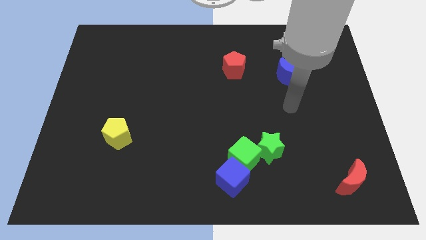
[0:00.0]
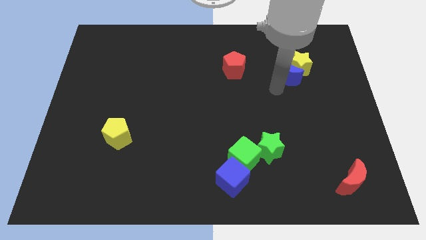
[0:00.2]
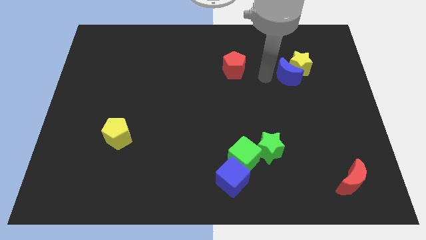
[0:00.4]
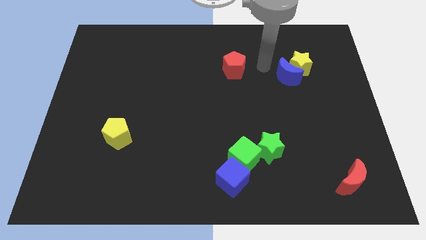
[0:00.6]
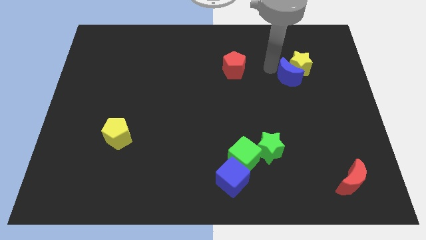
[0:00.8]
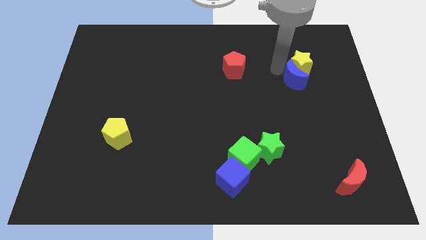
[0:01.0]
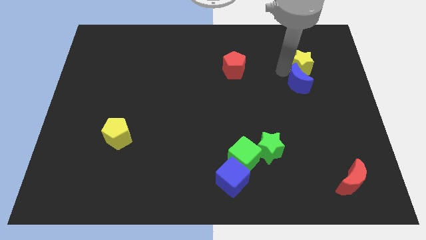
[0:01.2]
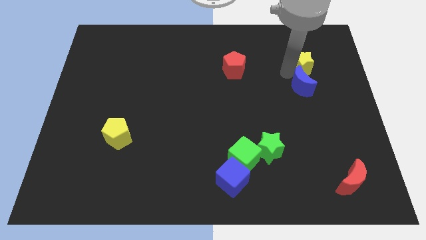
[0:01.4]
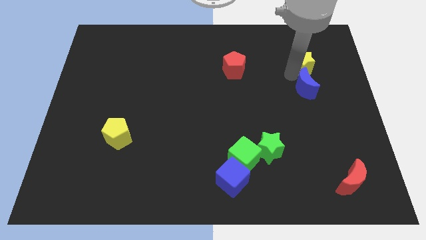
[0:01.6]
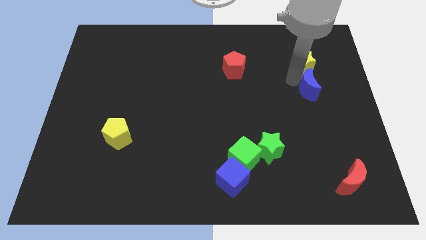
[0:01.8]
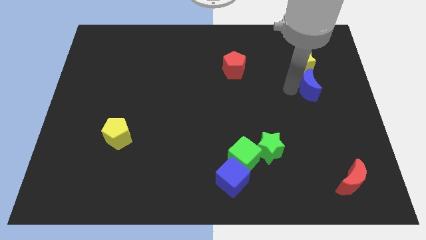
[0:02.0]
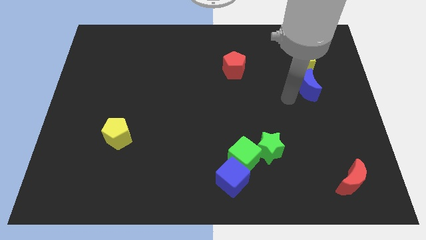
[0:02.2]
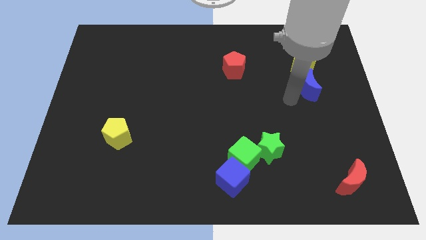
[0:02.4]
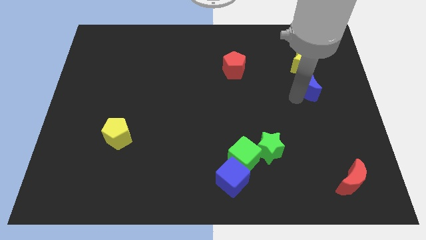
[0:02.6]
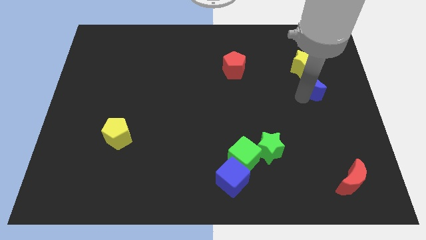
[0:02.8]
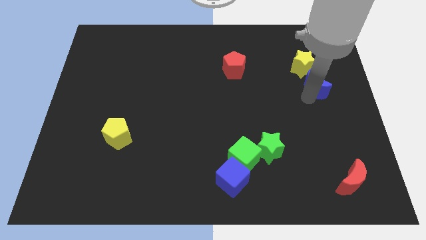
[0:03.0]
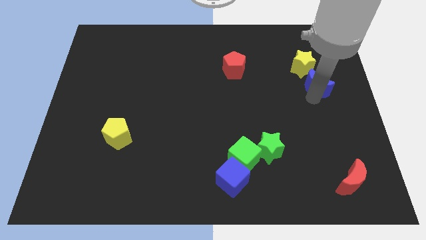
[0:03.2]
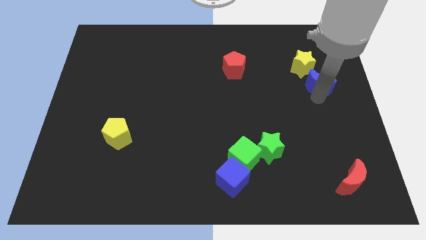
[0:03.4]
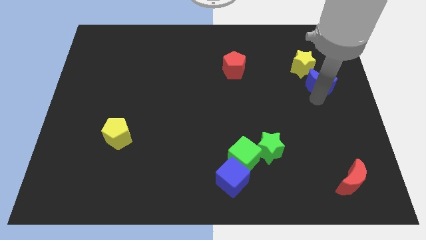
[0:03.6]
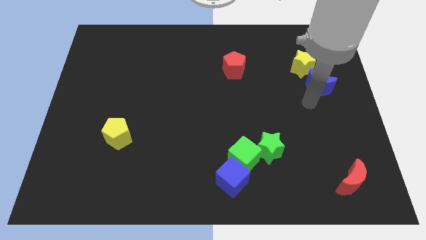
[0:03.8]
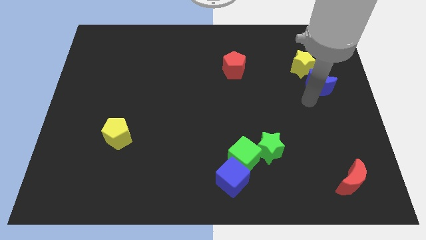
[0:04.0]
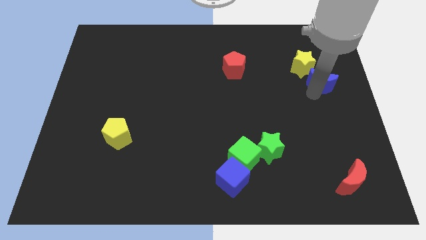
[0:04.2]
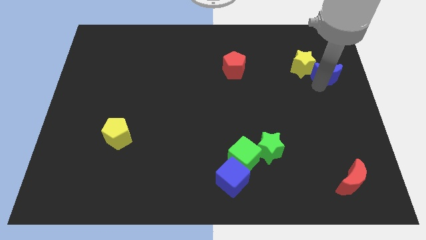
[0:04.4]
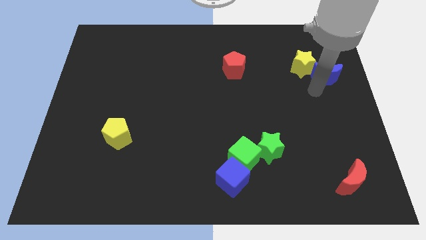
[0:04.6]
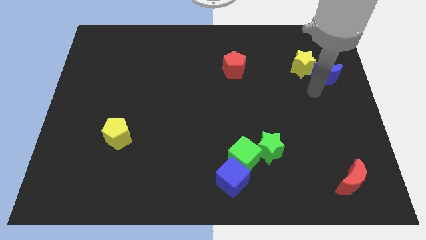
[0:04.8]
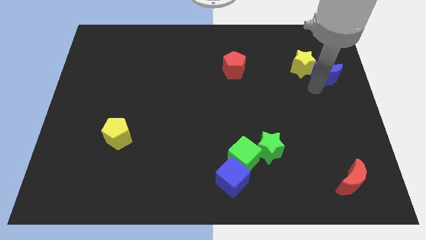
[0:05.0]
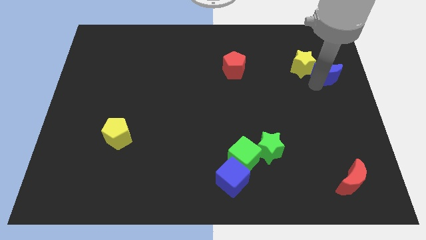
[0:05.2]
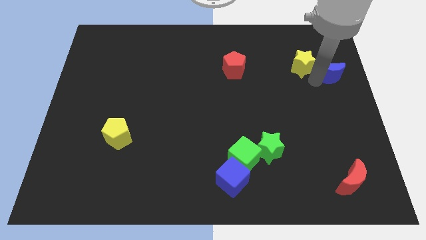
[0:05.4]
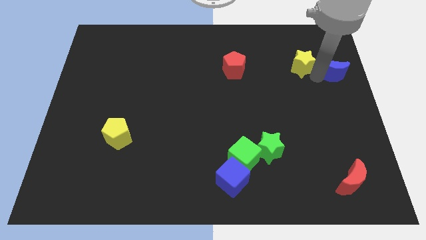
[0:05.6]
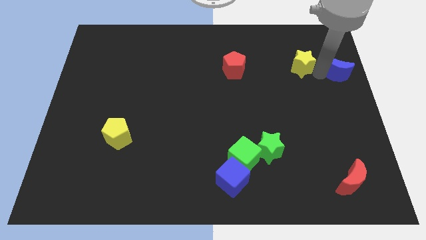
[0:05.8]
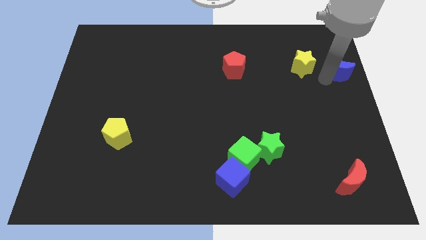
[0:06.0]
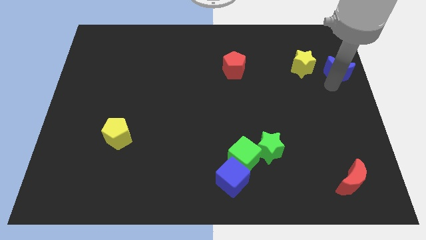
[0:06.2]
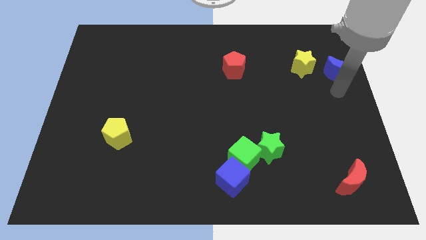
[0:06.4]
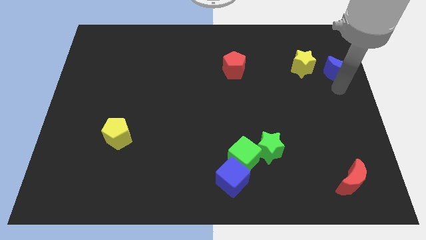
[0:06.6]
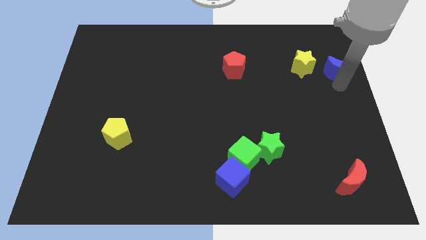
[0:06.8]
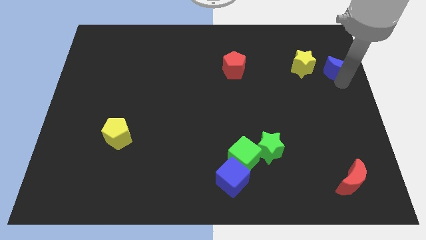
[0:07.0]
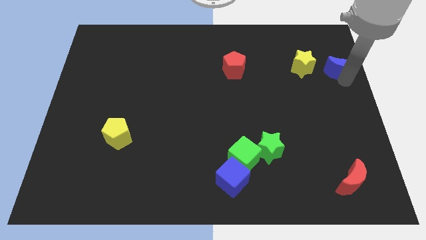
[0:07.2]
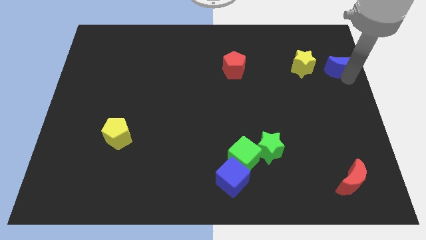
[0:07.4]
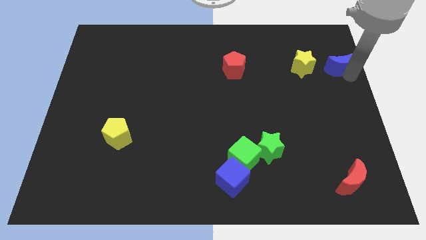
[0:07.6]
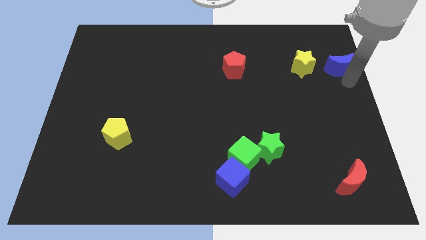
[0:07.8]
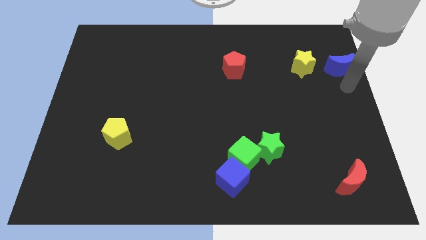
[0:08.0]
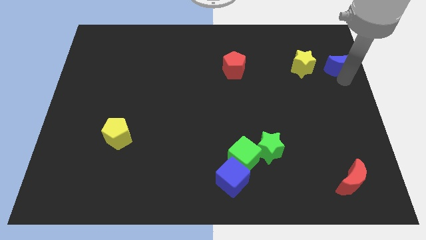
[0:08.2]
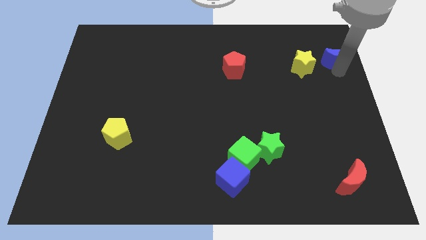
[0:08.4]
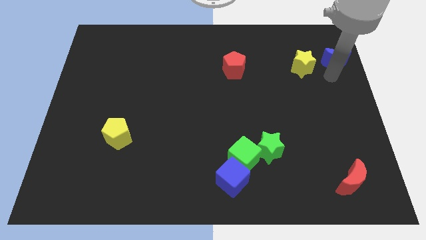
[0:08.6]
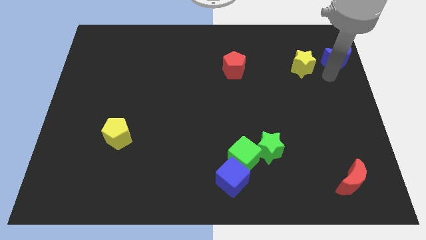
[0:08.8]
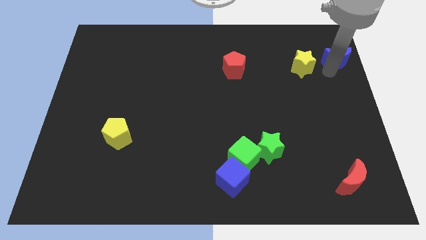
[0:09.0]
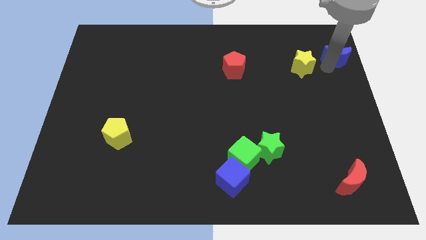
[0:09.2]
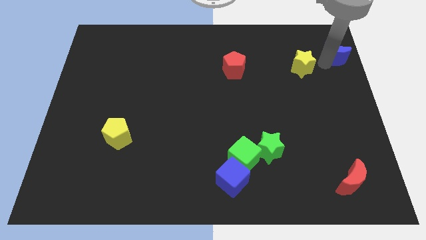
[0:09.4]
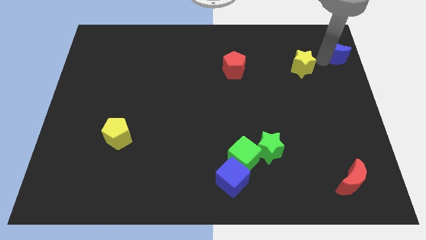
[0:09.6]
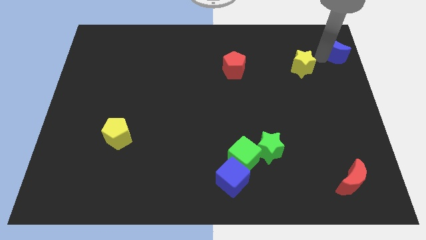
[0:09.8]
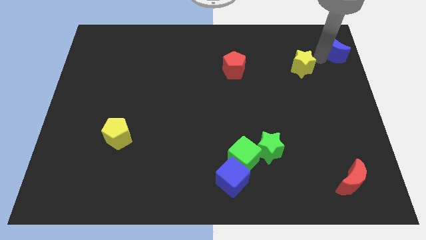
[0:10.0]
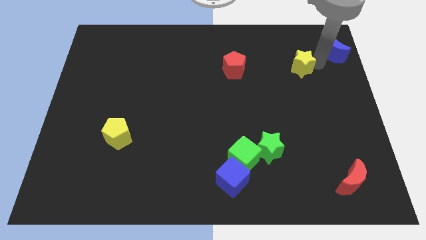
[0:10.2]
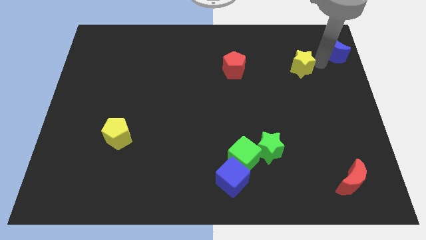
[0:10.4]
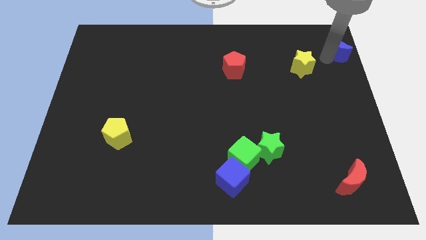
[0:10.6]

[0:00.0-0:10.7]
slide the blue moon to the top right corner

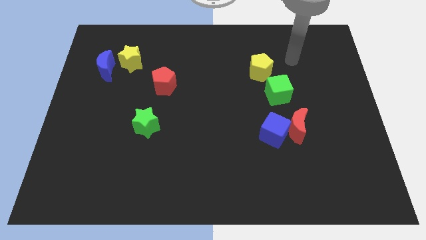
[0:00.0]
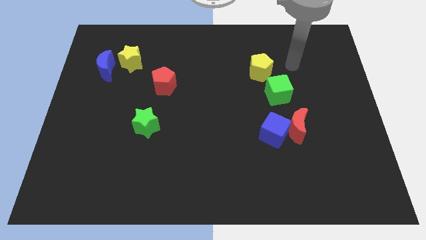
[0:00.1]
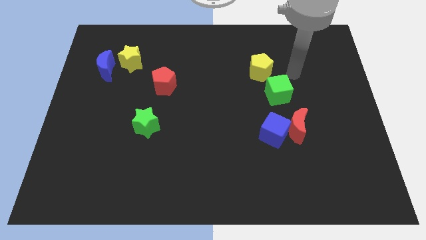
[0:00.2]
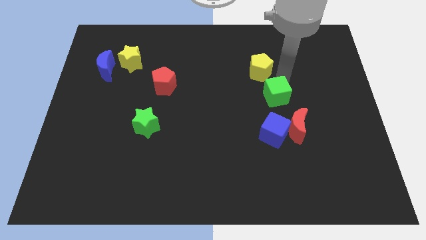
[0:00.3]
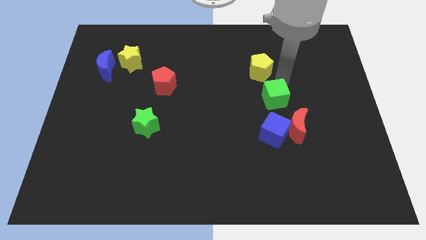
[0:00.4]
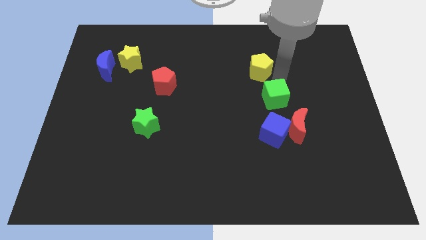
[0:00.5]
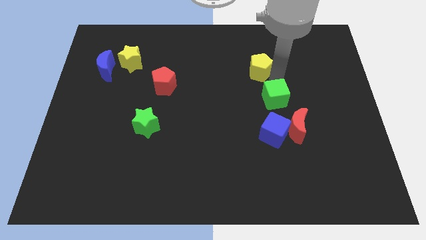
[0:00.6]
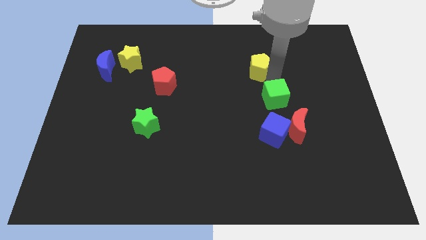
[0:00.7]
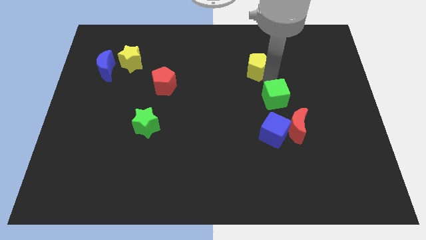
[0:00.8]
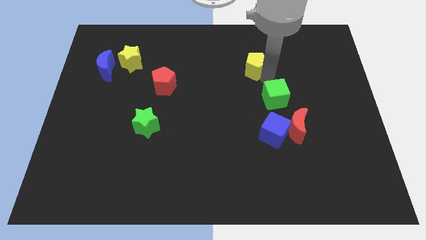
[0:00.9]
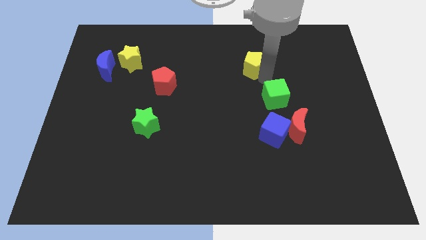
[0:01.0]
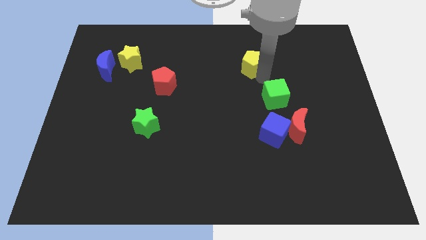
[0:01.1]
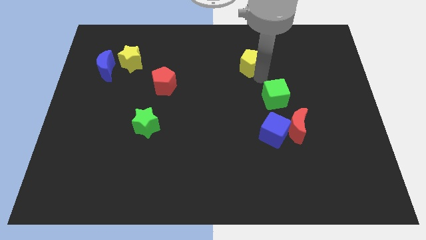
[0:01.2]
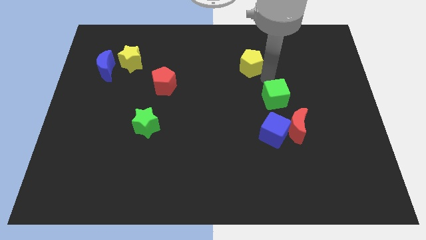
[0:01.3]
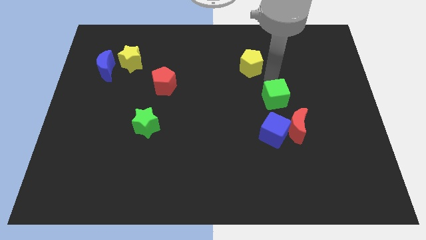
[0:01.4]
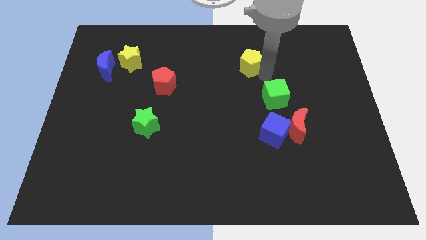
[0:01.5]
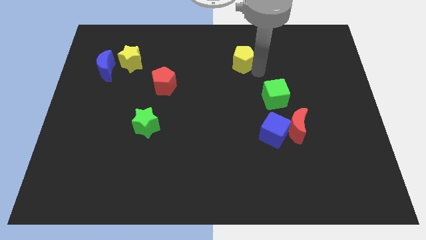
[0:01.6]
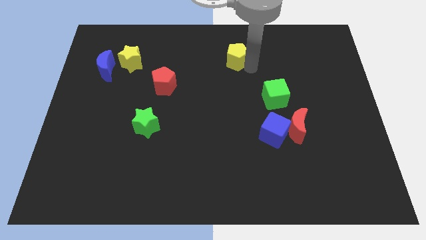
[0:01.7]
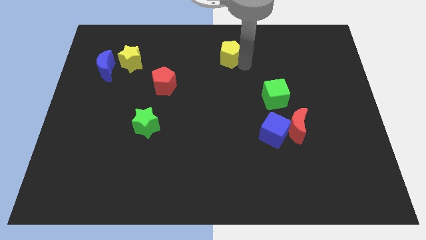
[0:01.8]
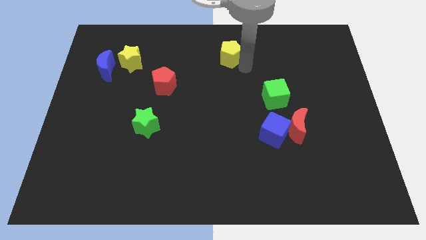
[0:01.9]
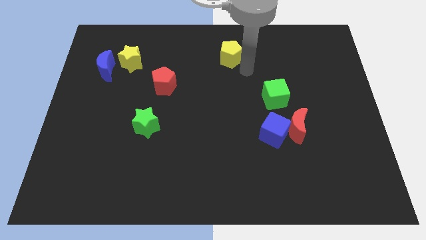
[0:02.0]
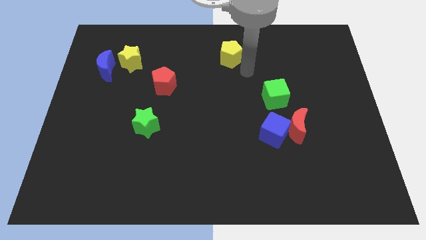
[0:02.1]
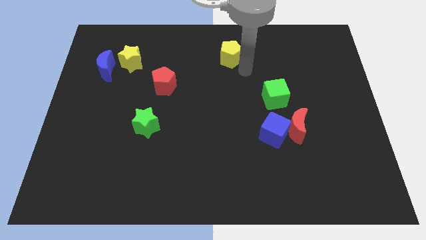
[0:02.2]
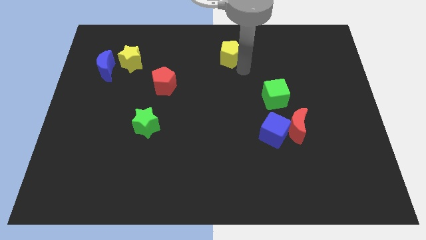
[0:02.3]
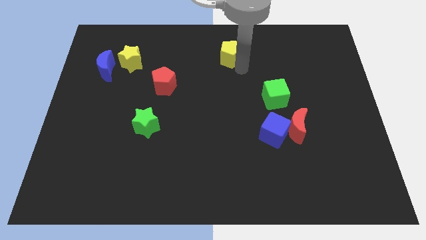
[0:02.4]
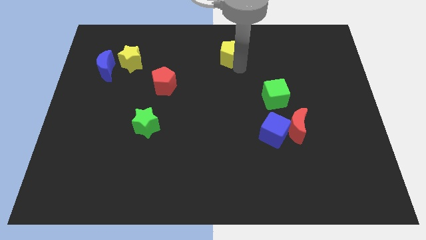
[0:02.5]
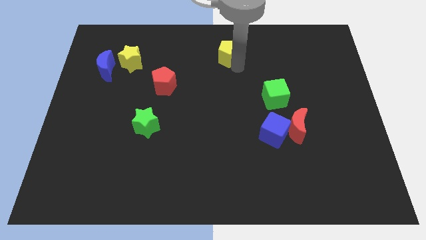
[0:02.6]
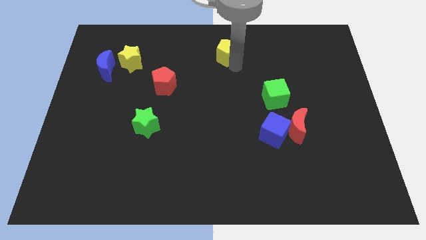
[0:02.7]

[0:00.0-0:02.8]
move the yellow pentagon to the top side
